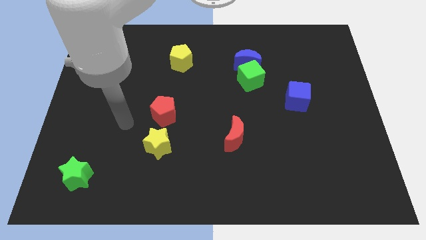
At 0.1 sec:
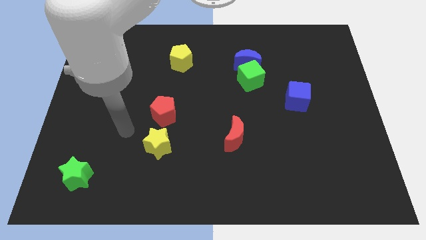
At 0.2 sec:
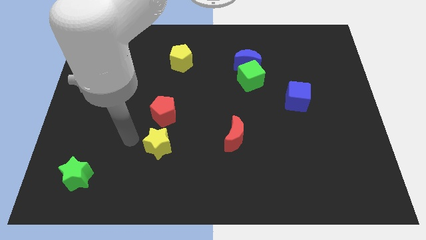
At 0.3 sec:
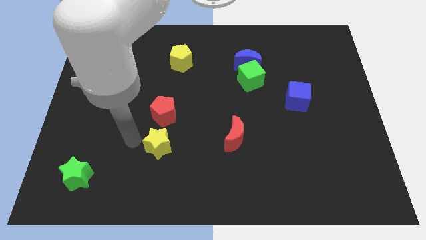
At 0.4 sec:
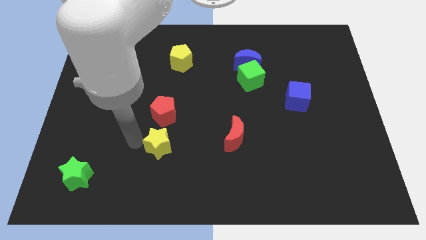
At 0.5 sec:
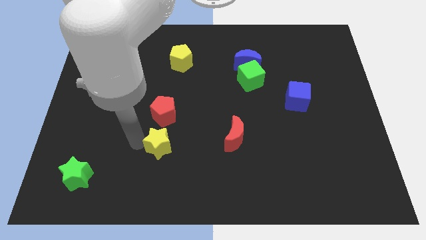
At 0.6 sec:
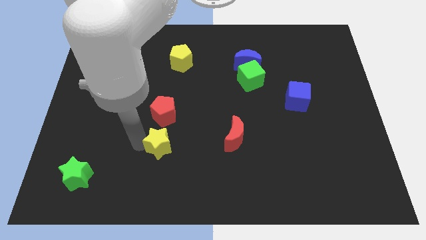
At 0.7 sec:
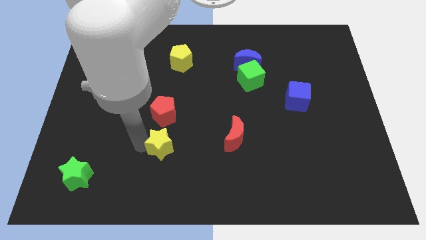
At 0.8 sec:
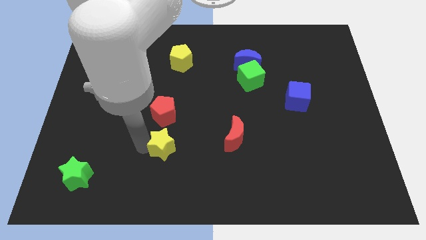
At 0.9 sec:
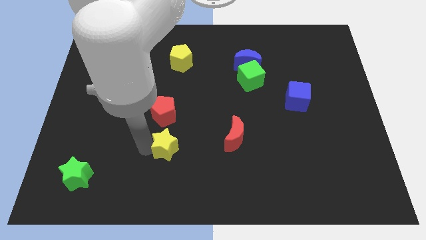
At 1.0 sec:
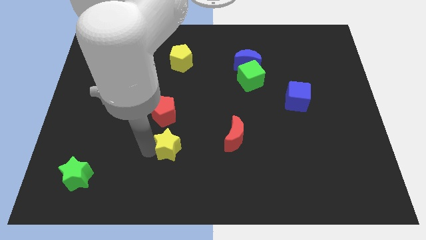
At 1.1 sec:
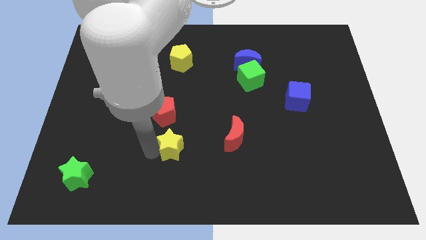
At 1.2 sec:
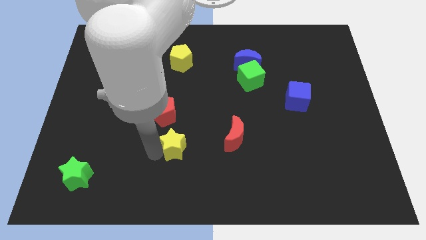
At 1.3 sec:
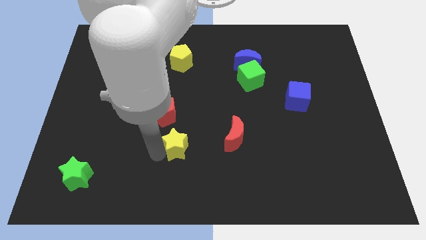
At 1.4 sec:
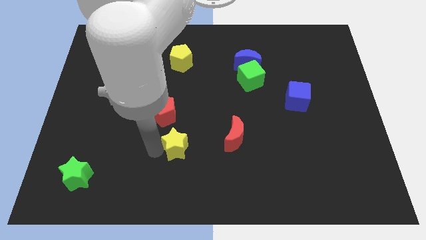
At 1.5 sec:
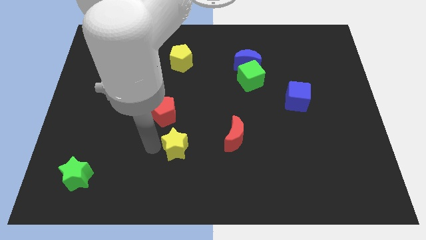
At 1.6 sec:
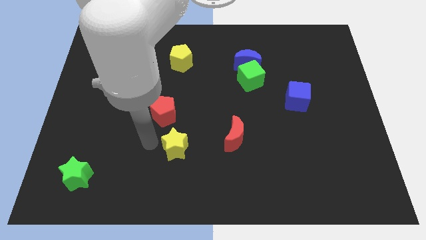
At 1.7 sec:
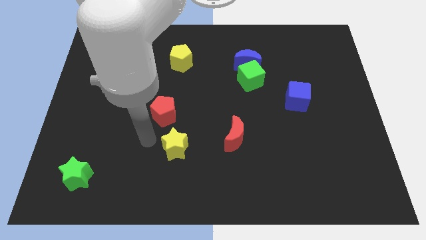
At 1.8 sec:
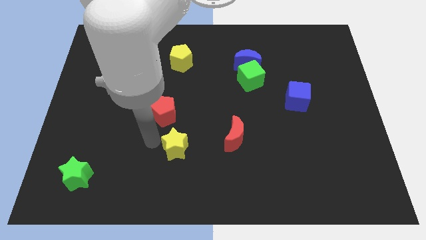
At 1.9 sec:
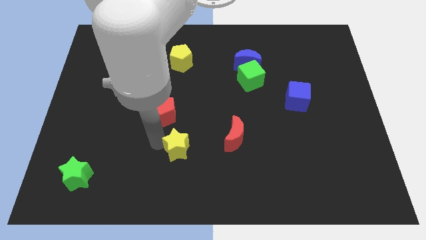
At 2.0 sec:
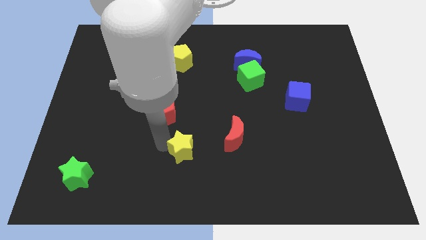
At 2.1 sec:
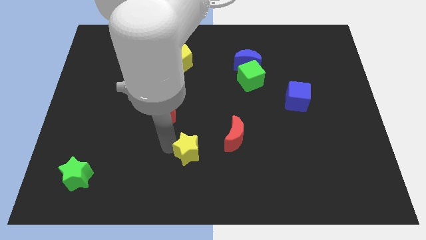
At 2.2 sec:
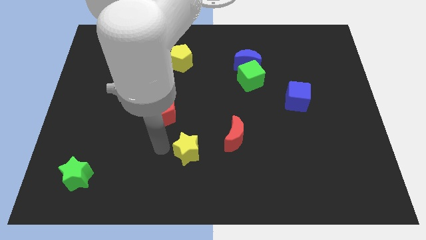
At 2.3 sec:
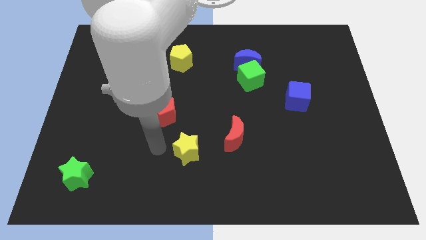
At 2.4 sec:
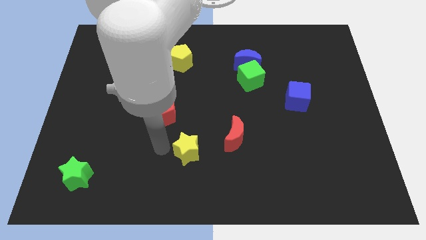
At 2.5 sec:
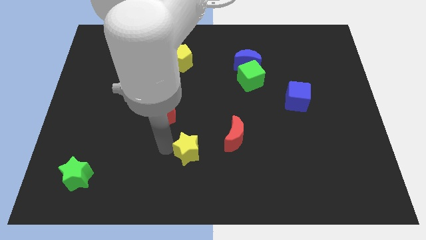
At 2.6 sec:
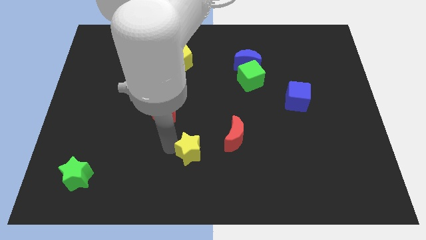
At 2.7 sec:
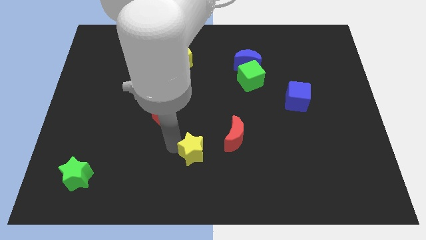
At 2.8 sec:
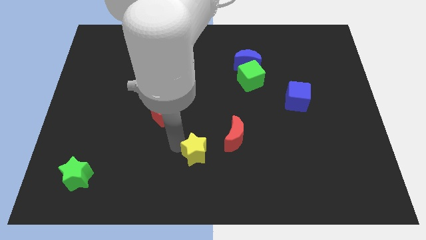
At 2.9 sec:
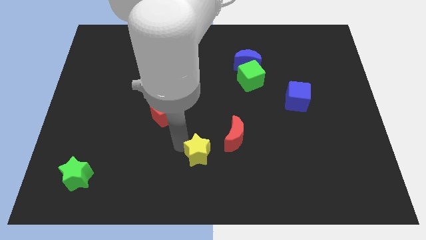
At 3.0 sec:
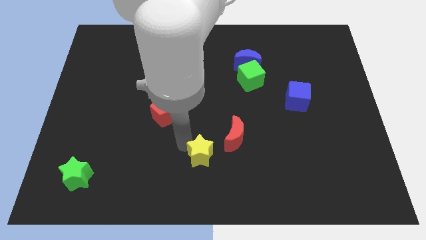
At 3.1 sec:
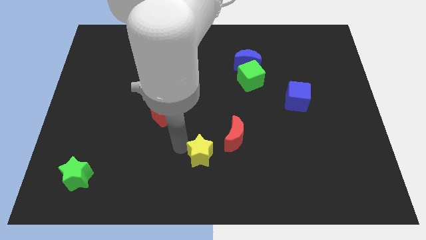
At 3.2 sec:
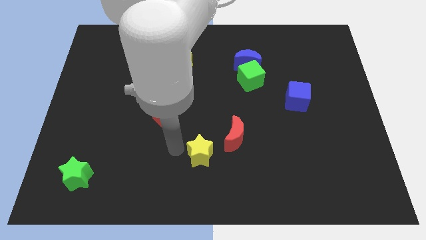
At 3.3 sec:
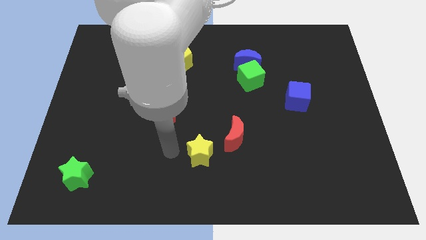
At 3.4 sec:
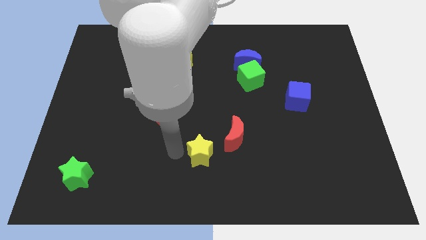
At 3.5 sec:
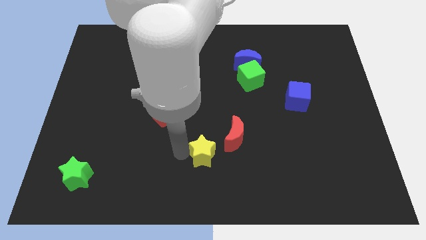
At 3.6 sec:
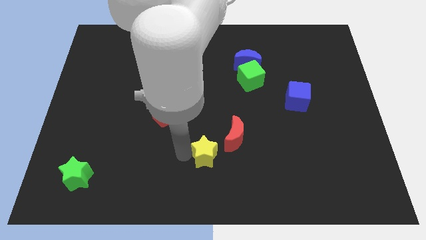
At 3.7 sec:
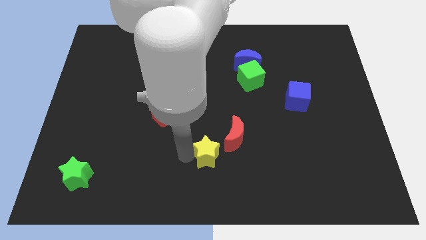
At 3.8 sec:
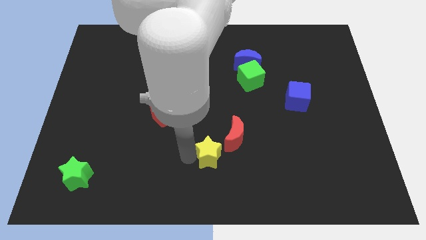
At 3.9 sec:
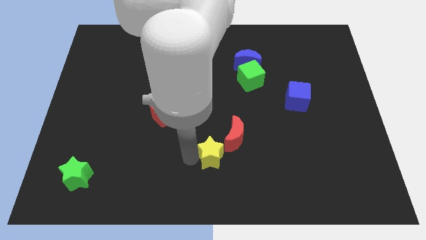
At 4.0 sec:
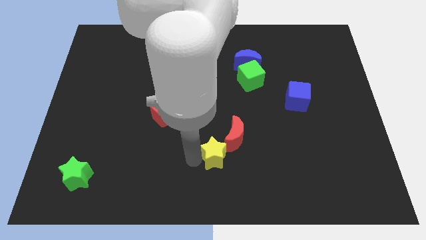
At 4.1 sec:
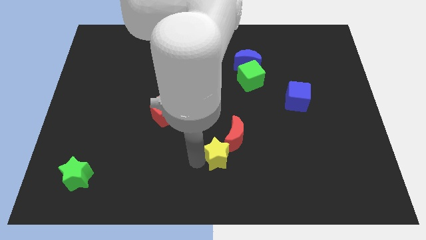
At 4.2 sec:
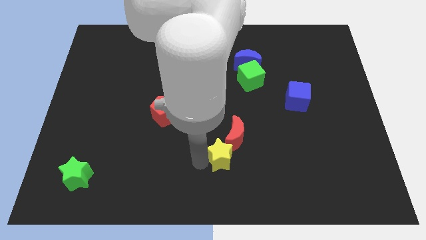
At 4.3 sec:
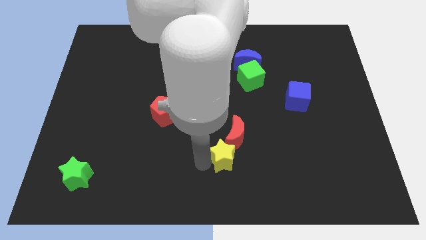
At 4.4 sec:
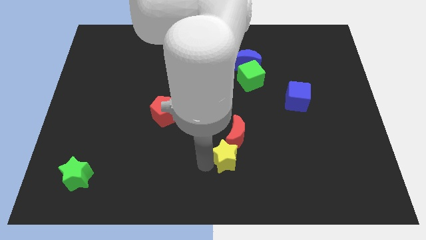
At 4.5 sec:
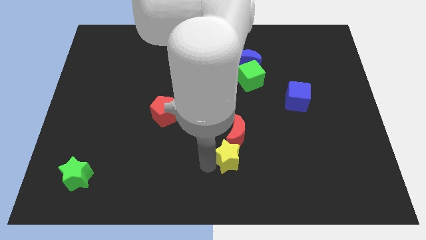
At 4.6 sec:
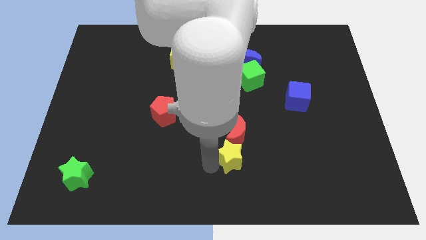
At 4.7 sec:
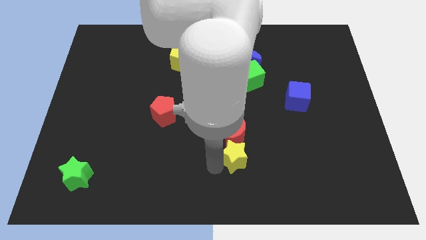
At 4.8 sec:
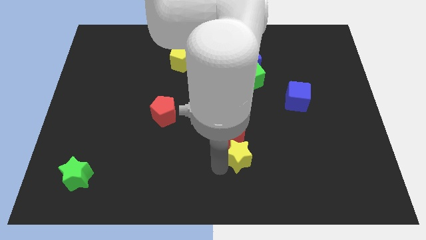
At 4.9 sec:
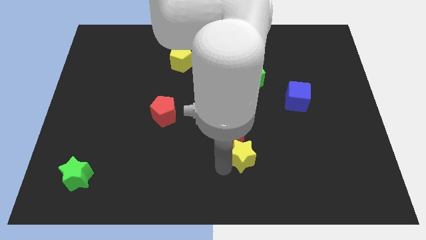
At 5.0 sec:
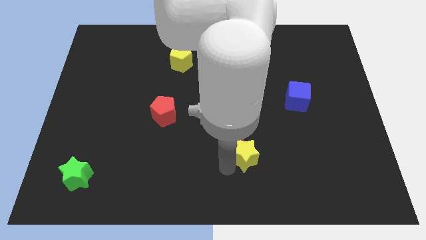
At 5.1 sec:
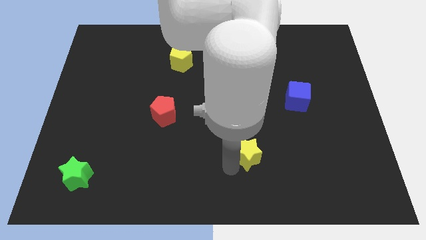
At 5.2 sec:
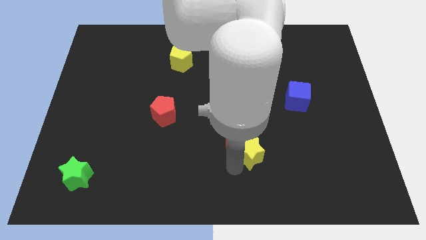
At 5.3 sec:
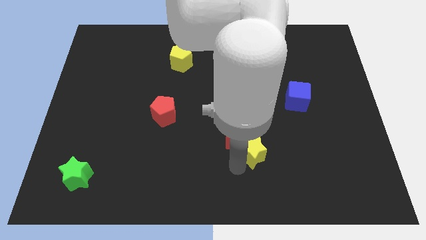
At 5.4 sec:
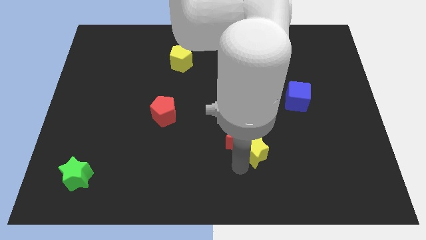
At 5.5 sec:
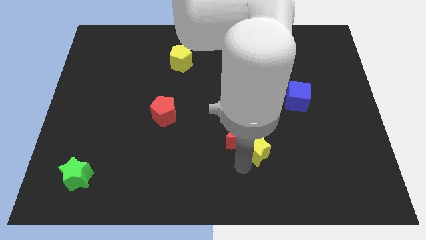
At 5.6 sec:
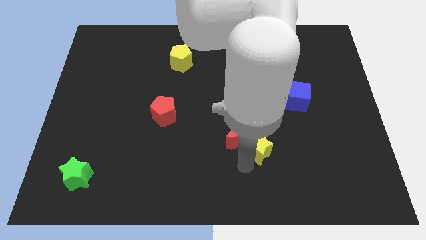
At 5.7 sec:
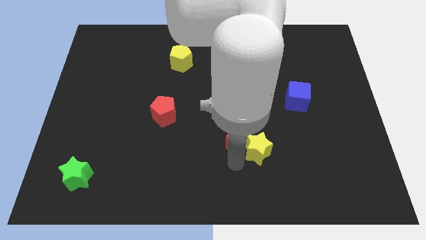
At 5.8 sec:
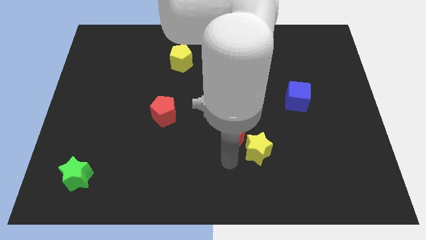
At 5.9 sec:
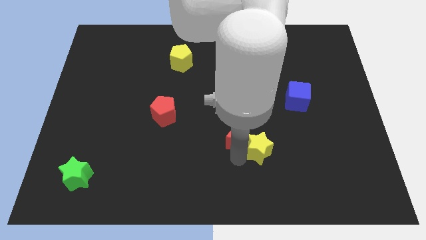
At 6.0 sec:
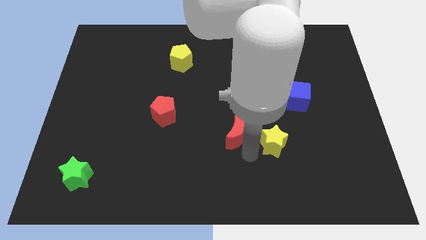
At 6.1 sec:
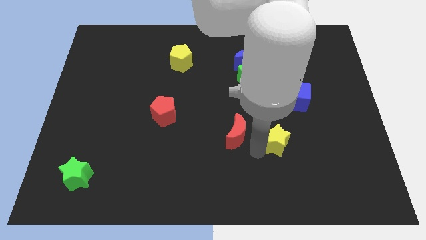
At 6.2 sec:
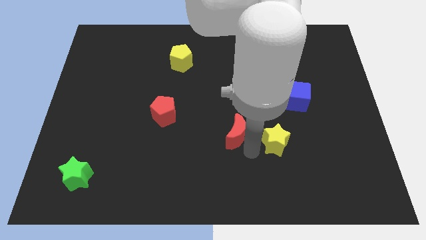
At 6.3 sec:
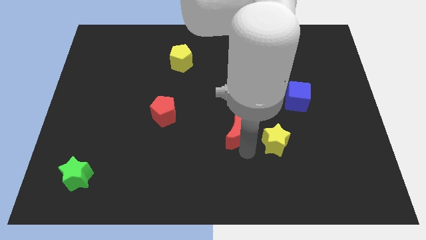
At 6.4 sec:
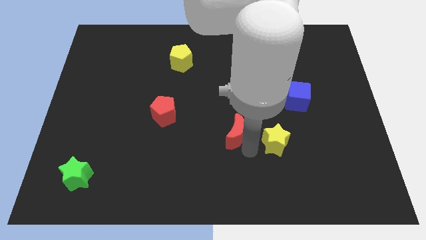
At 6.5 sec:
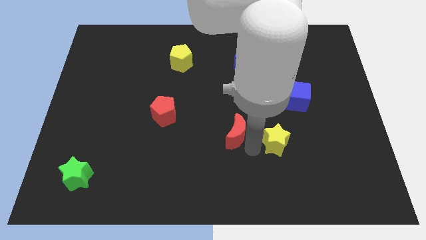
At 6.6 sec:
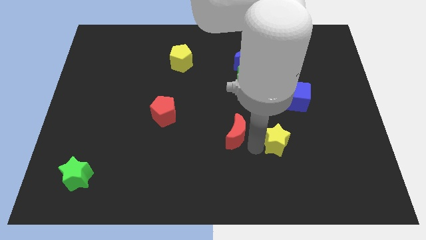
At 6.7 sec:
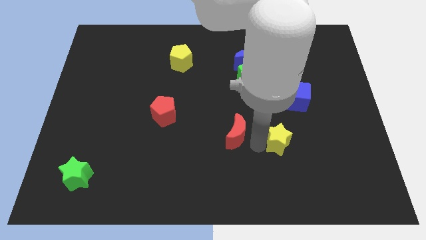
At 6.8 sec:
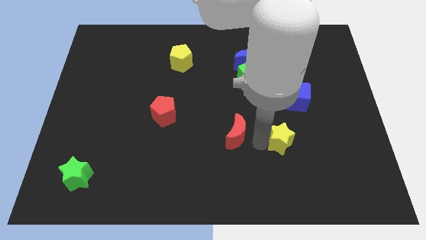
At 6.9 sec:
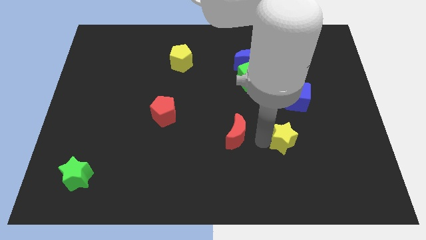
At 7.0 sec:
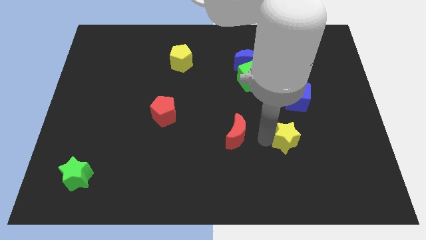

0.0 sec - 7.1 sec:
slide the yellow star below the blue cube

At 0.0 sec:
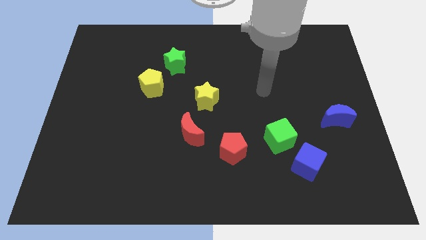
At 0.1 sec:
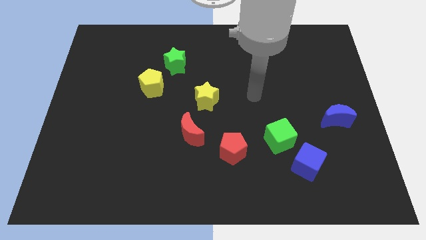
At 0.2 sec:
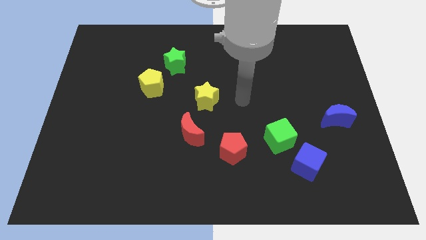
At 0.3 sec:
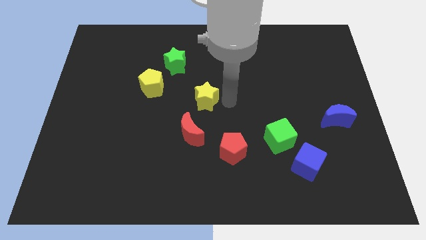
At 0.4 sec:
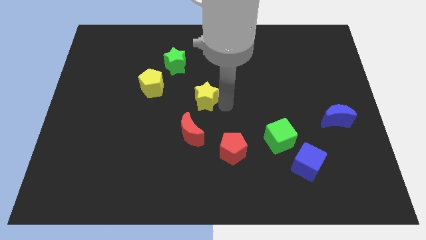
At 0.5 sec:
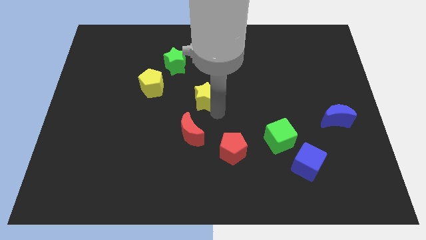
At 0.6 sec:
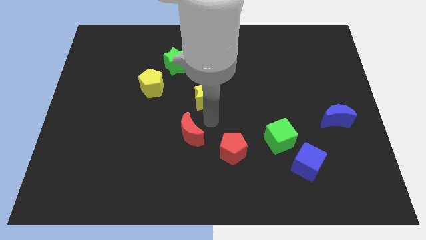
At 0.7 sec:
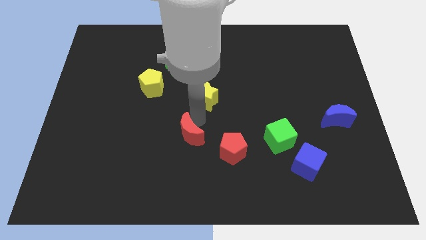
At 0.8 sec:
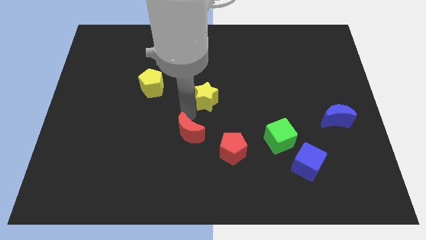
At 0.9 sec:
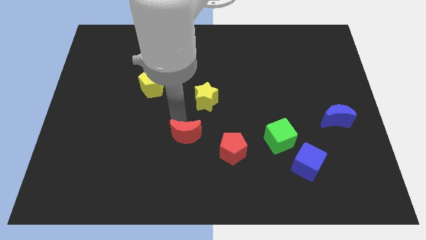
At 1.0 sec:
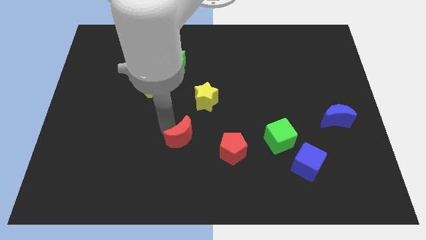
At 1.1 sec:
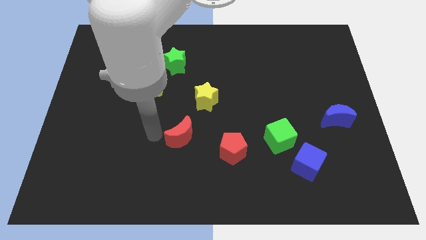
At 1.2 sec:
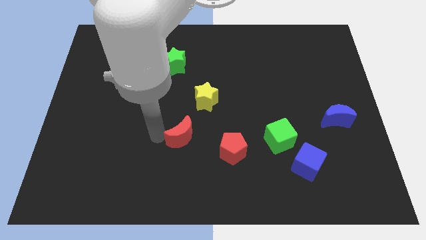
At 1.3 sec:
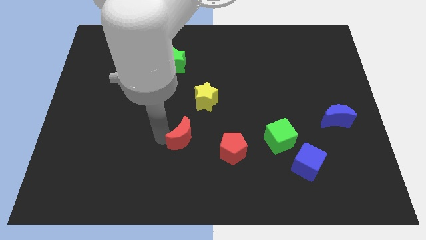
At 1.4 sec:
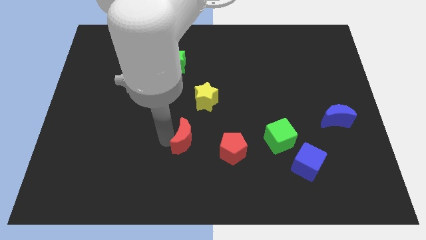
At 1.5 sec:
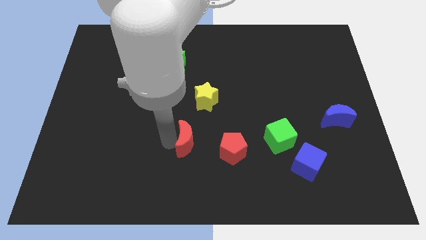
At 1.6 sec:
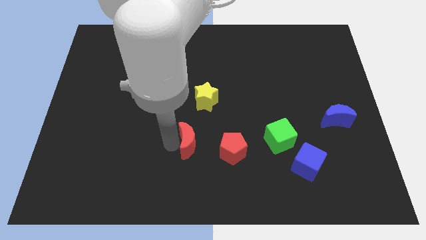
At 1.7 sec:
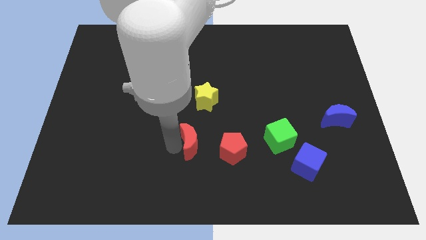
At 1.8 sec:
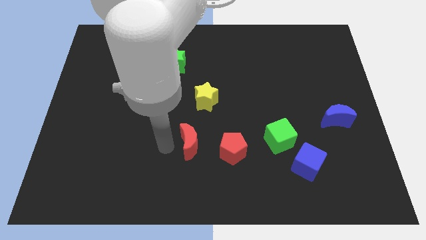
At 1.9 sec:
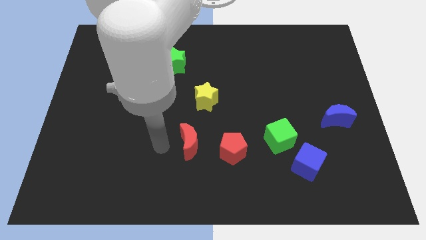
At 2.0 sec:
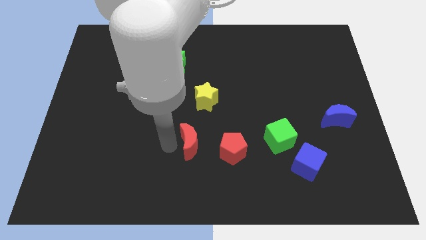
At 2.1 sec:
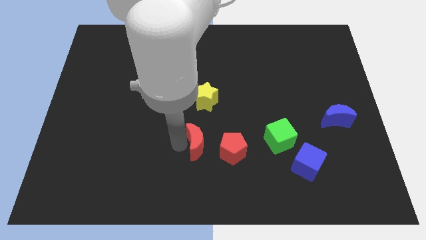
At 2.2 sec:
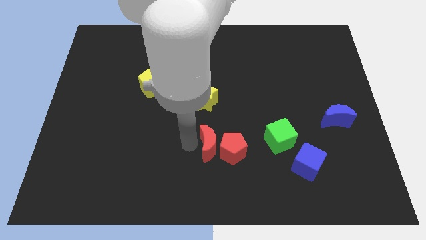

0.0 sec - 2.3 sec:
slide the red moon to the left side of the green cube
